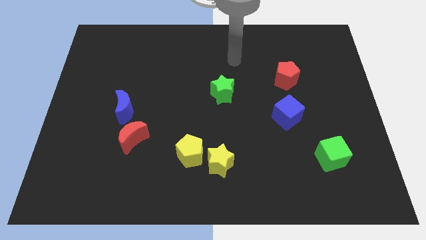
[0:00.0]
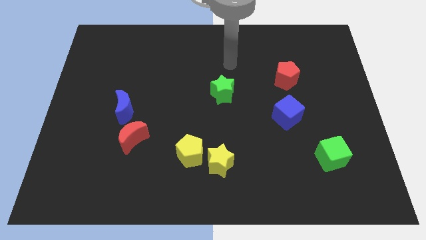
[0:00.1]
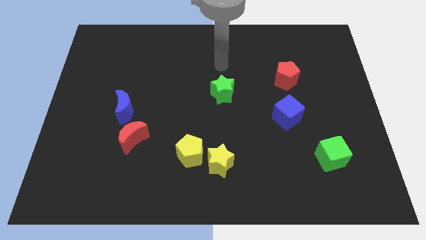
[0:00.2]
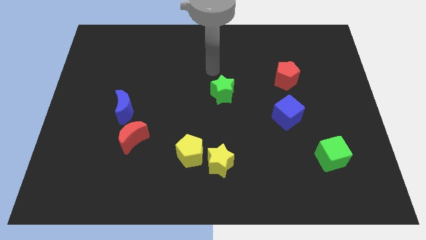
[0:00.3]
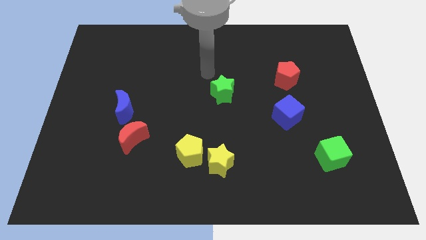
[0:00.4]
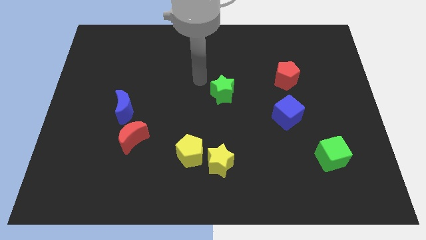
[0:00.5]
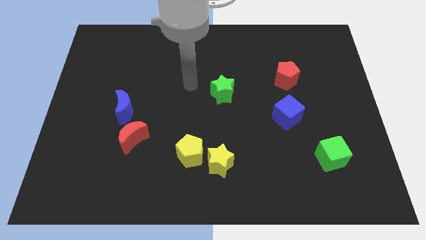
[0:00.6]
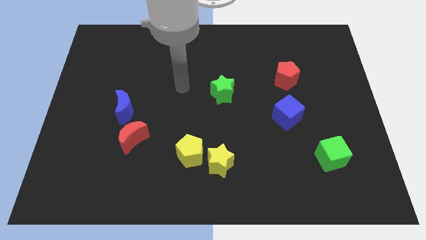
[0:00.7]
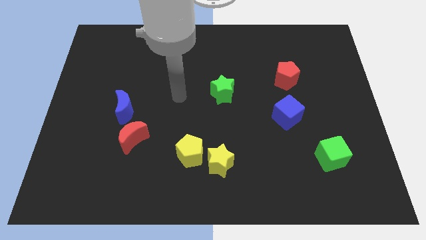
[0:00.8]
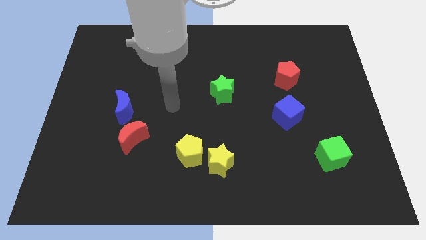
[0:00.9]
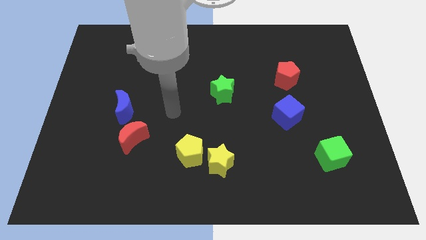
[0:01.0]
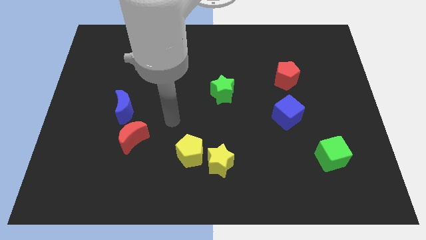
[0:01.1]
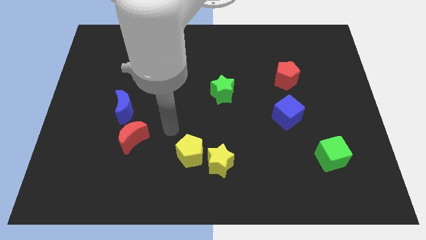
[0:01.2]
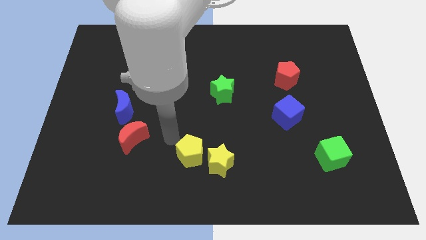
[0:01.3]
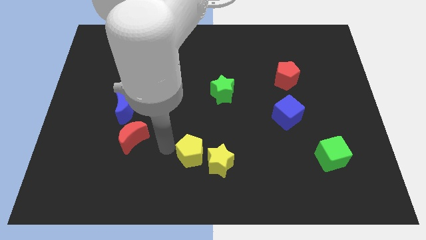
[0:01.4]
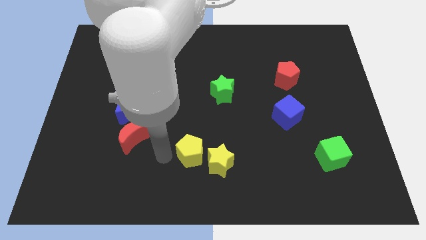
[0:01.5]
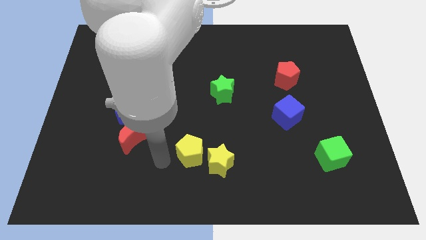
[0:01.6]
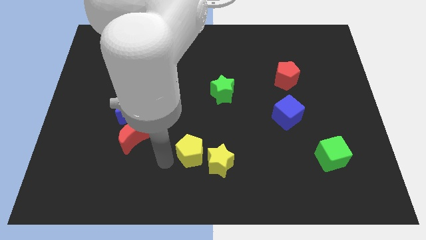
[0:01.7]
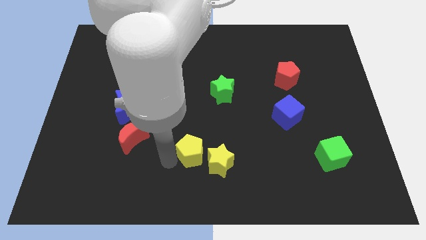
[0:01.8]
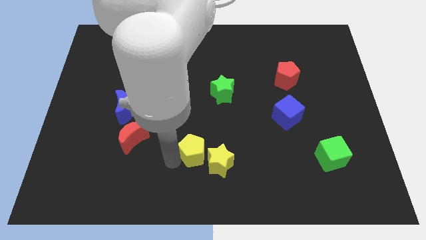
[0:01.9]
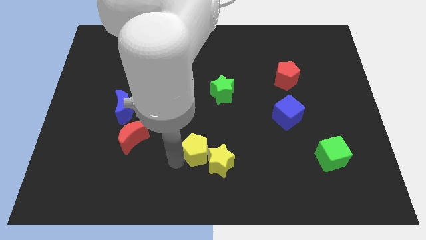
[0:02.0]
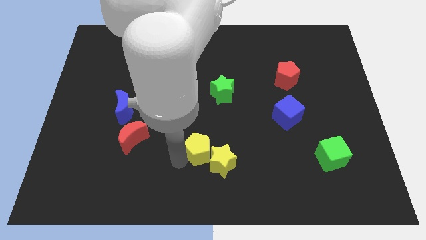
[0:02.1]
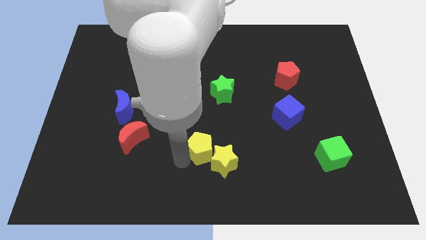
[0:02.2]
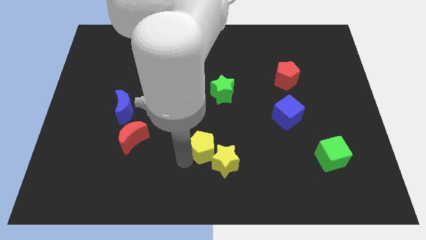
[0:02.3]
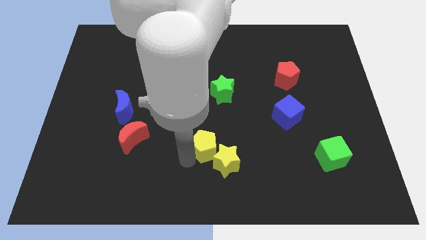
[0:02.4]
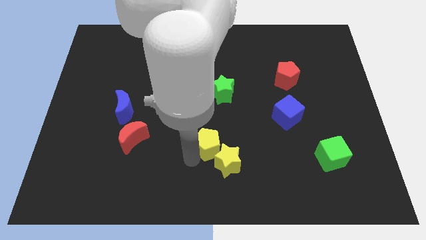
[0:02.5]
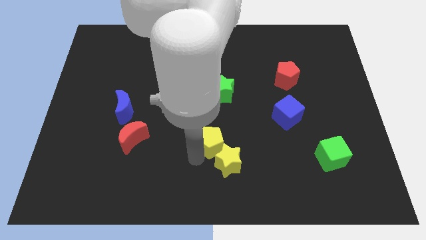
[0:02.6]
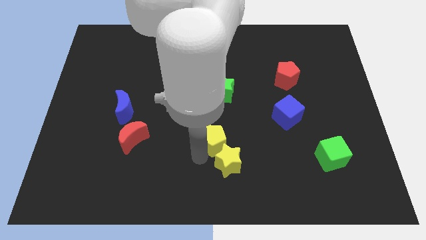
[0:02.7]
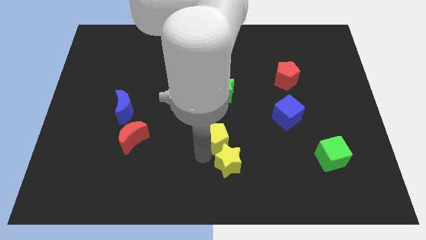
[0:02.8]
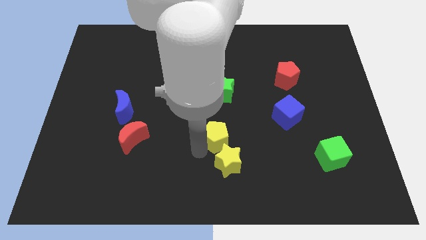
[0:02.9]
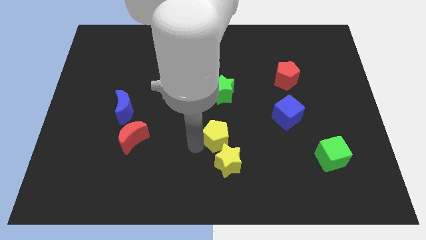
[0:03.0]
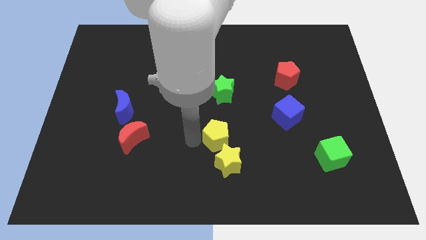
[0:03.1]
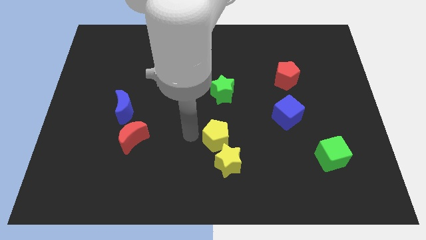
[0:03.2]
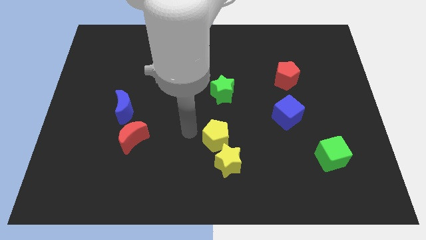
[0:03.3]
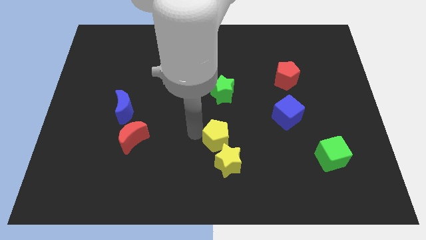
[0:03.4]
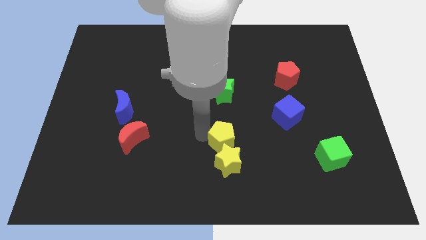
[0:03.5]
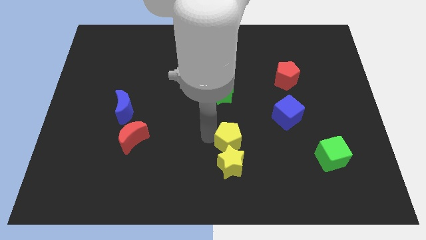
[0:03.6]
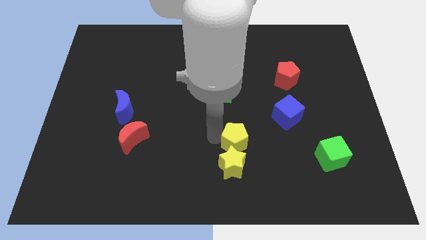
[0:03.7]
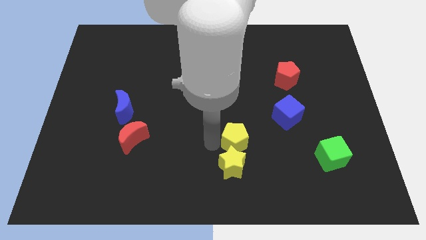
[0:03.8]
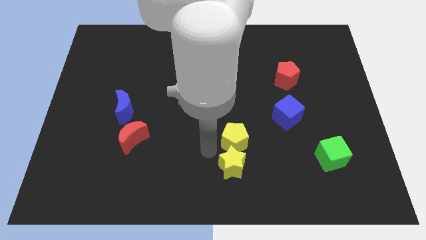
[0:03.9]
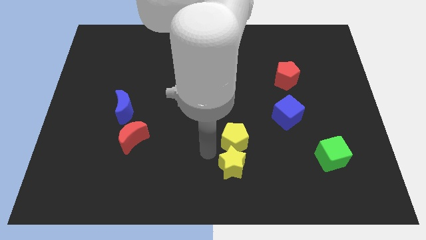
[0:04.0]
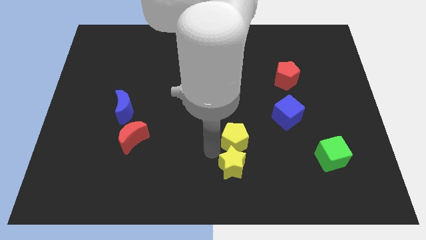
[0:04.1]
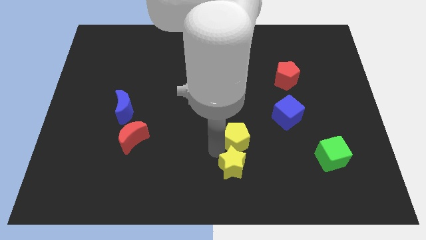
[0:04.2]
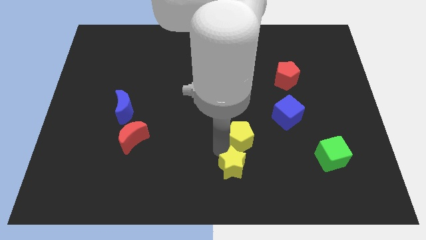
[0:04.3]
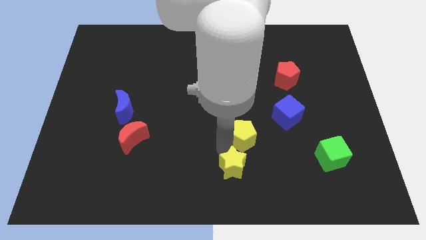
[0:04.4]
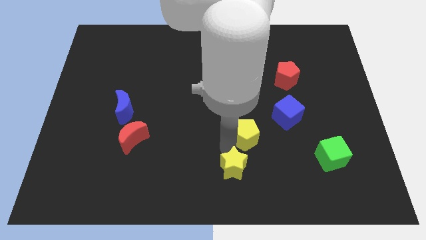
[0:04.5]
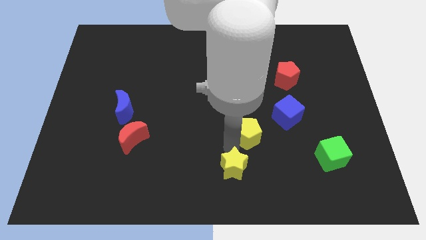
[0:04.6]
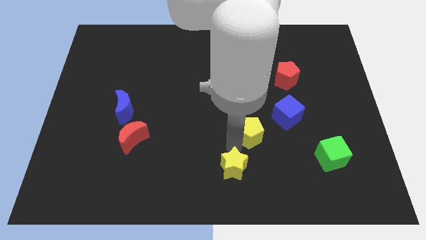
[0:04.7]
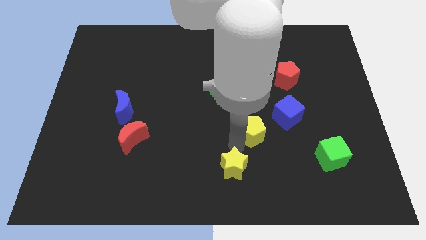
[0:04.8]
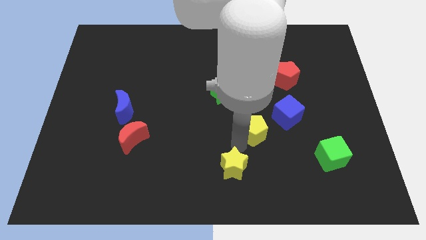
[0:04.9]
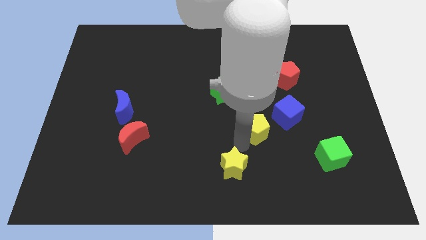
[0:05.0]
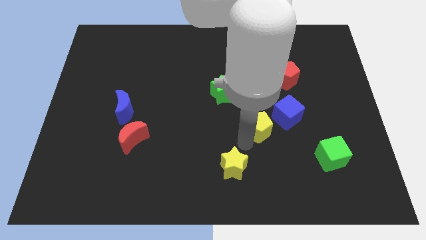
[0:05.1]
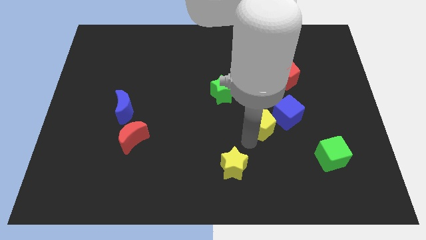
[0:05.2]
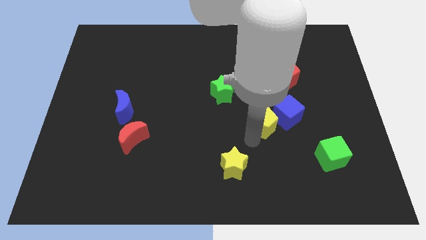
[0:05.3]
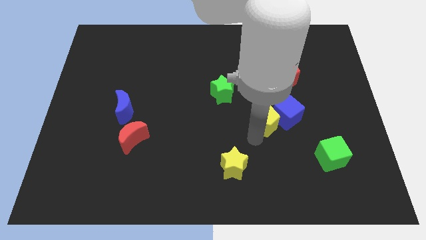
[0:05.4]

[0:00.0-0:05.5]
put the yellow pentagon close to the blue cube

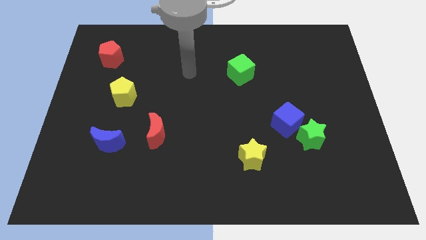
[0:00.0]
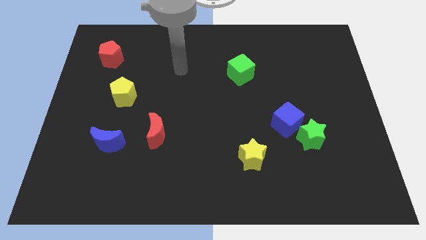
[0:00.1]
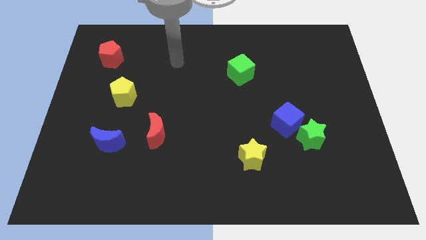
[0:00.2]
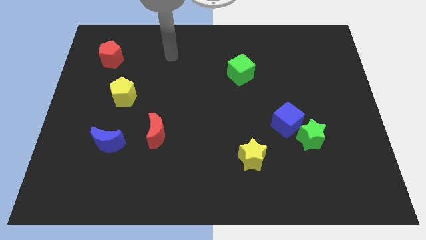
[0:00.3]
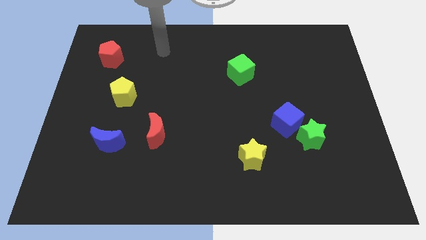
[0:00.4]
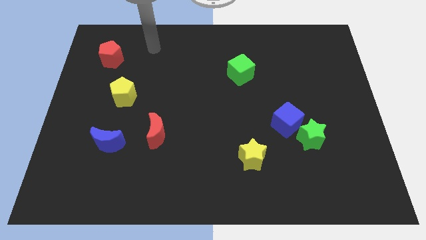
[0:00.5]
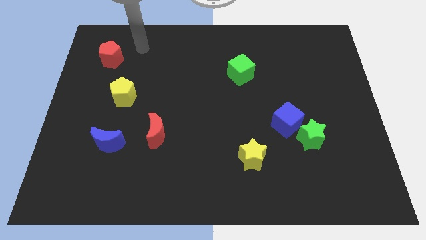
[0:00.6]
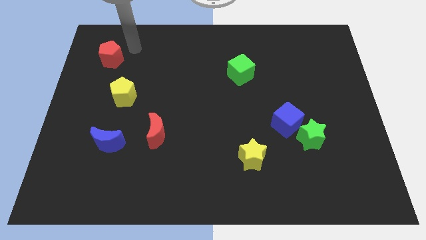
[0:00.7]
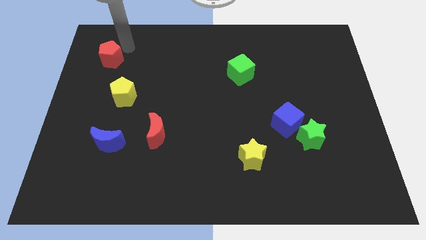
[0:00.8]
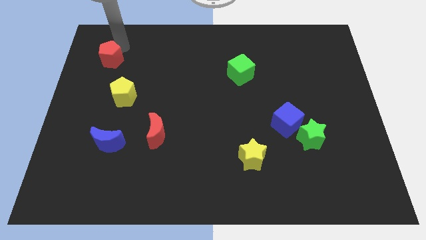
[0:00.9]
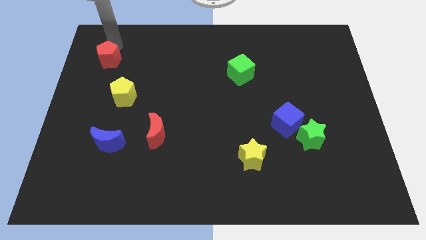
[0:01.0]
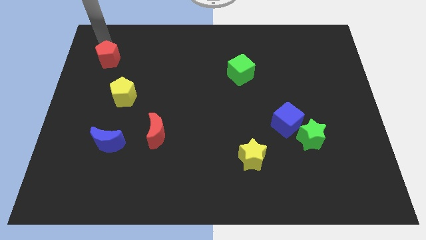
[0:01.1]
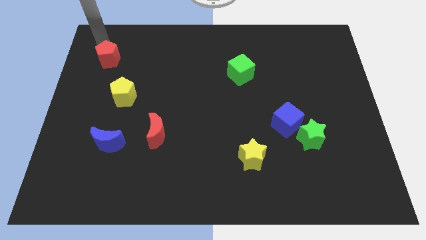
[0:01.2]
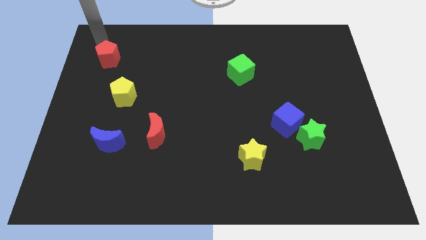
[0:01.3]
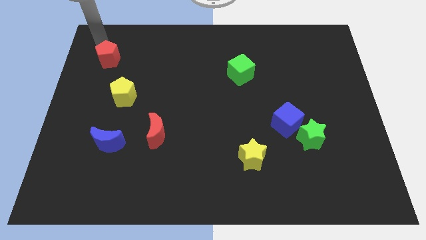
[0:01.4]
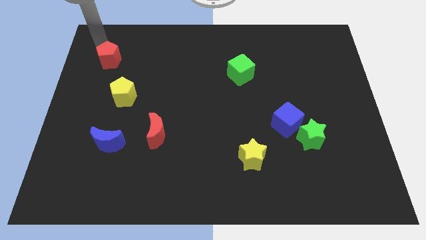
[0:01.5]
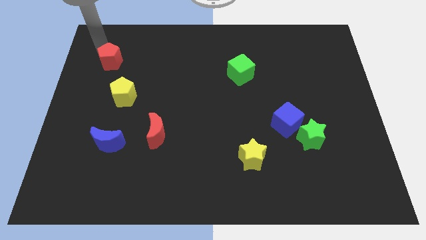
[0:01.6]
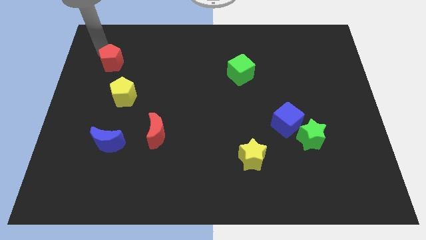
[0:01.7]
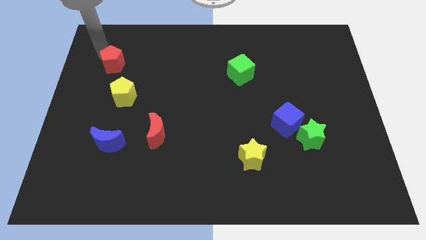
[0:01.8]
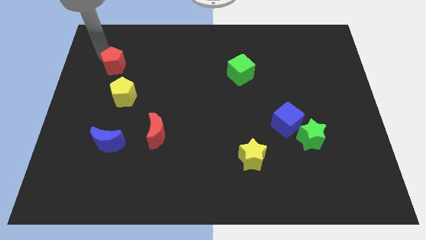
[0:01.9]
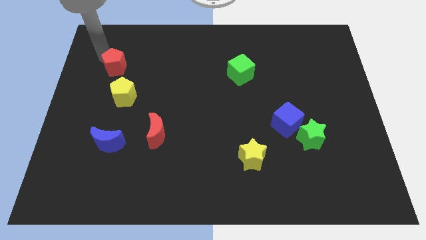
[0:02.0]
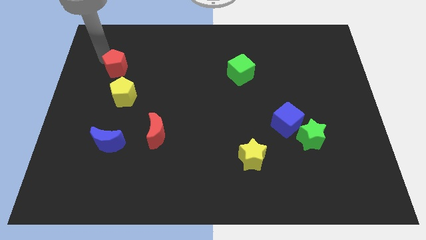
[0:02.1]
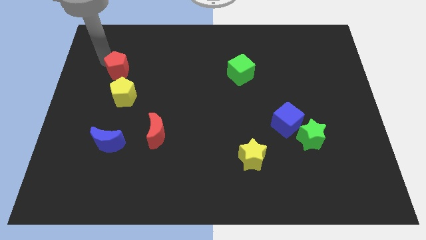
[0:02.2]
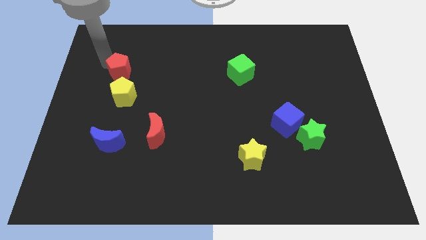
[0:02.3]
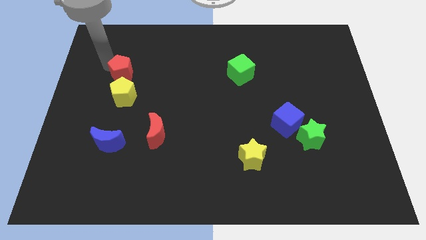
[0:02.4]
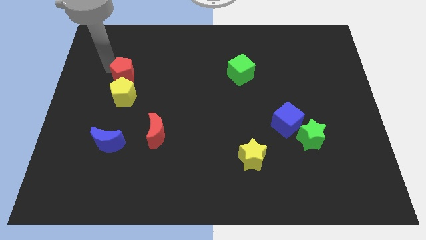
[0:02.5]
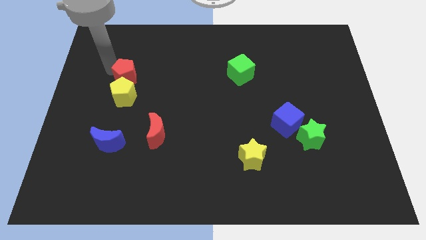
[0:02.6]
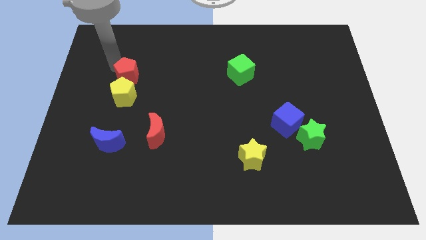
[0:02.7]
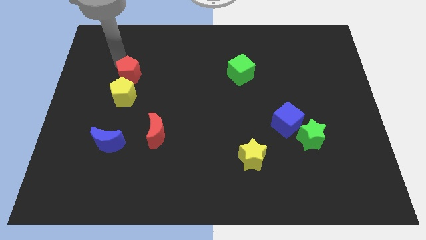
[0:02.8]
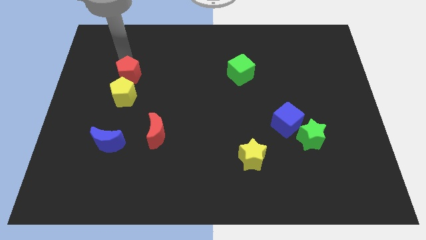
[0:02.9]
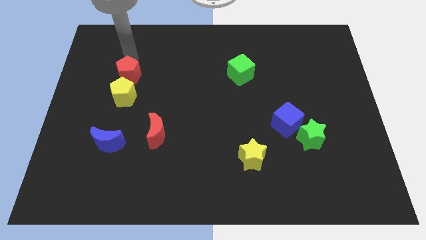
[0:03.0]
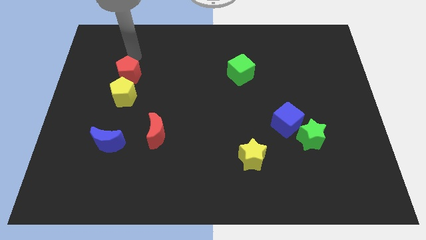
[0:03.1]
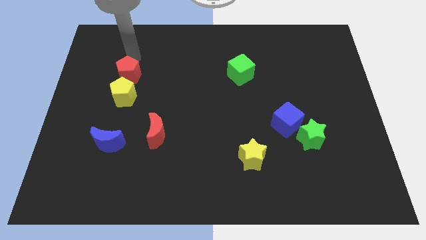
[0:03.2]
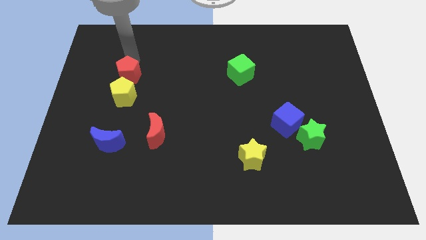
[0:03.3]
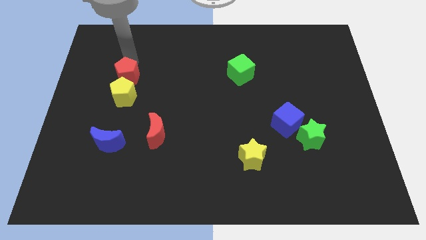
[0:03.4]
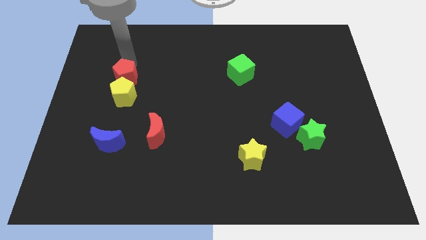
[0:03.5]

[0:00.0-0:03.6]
put the red pentagon to the yellow pentagon
